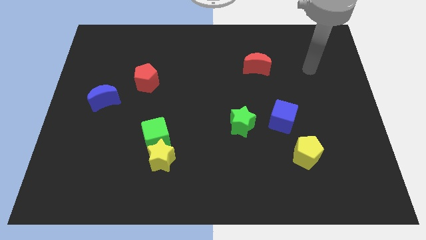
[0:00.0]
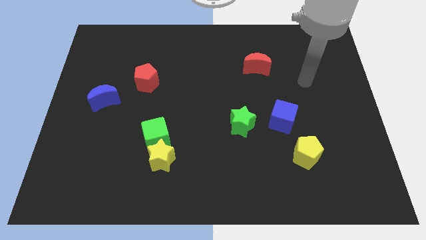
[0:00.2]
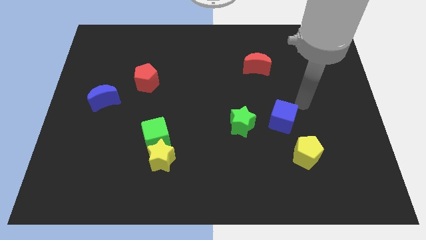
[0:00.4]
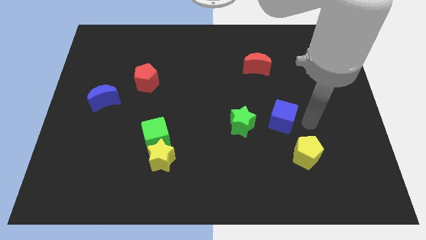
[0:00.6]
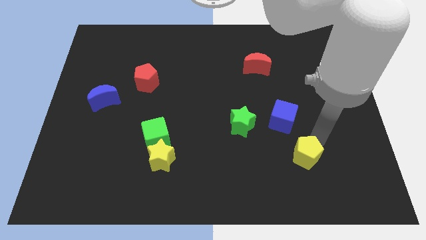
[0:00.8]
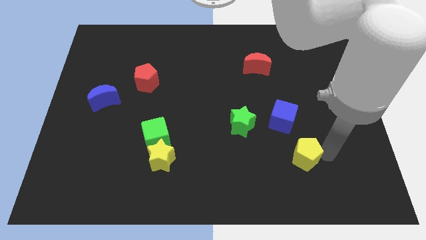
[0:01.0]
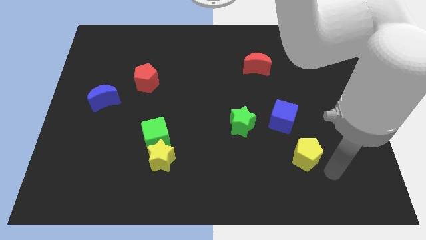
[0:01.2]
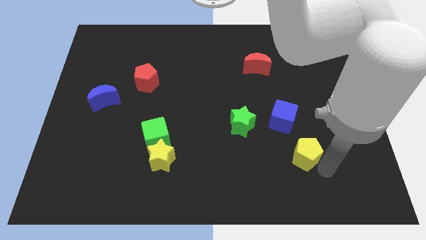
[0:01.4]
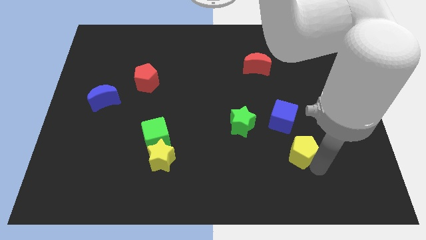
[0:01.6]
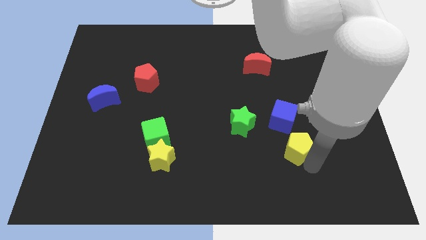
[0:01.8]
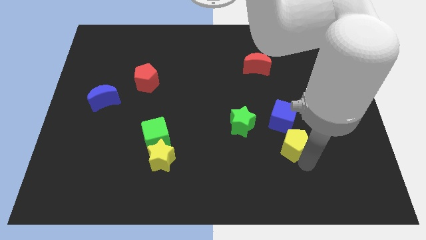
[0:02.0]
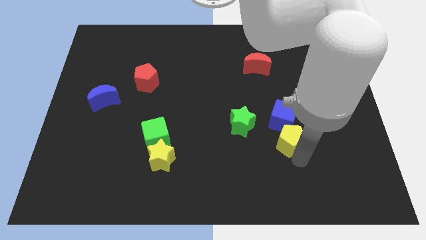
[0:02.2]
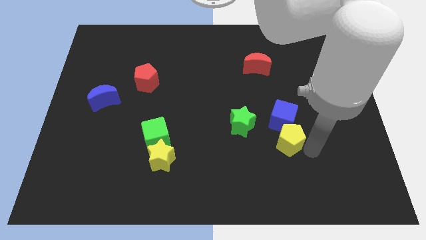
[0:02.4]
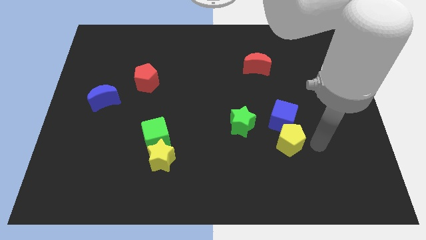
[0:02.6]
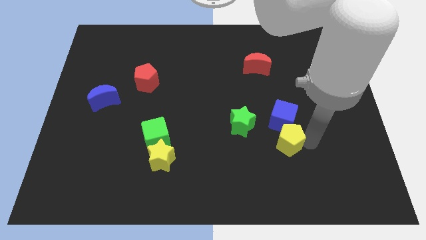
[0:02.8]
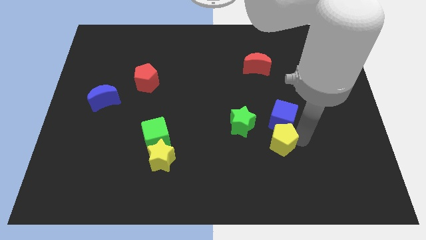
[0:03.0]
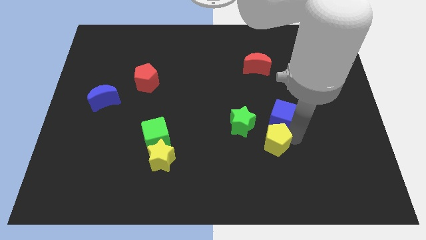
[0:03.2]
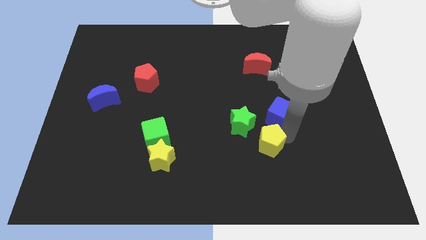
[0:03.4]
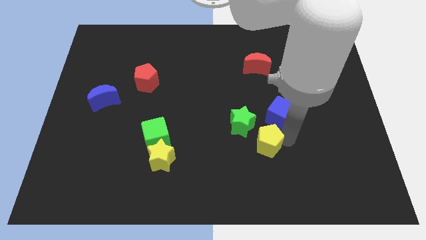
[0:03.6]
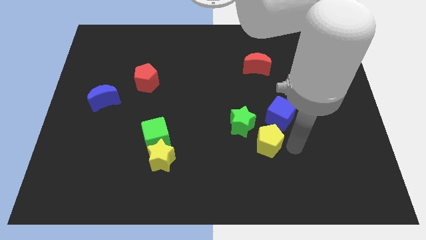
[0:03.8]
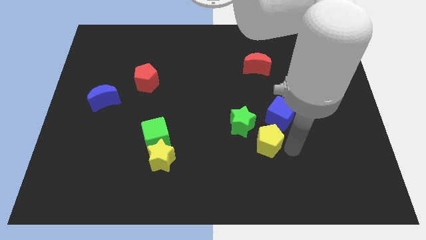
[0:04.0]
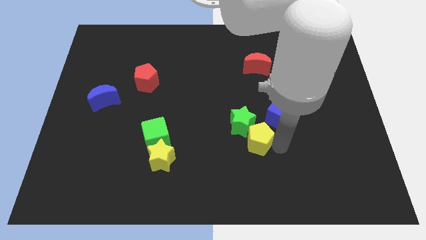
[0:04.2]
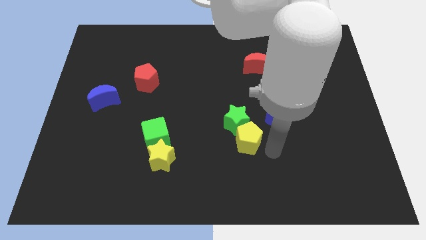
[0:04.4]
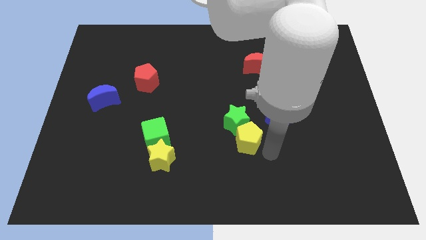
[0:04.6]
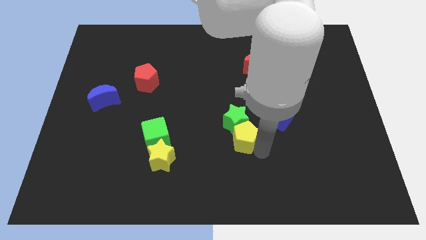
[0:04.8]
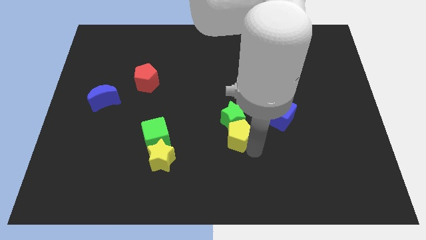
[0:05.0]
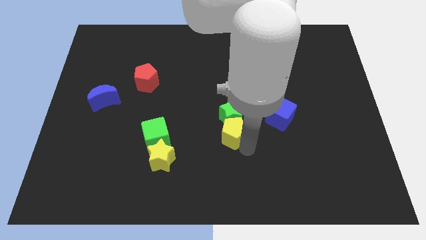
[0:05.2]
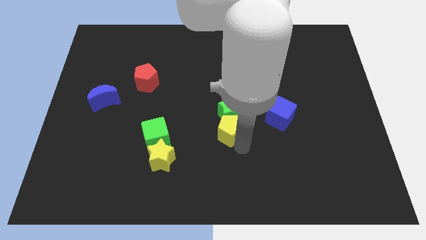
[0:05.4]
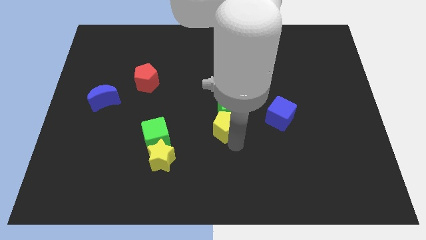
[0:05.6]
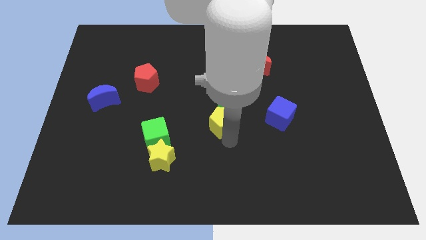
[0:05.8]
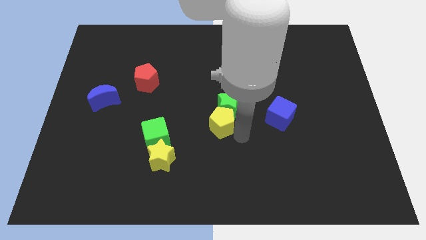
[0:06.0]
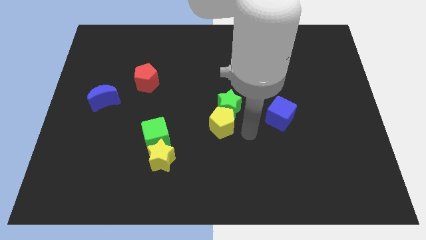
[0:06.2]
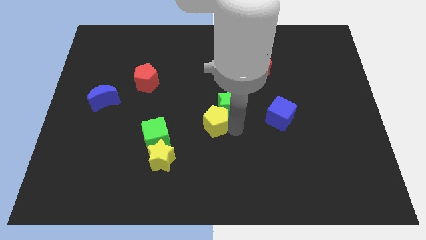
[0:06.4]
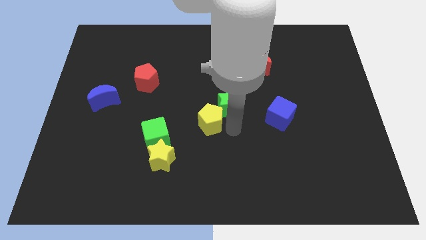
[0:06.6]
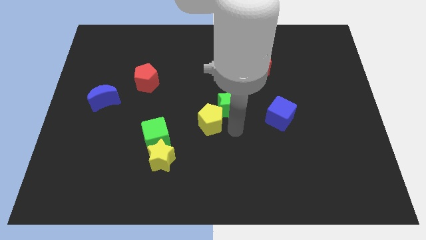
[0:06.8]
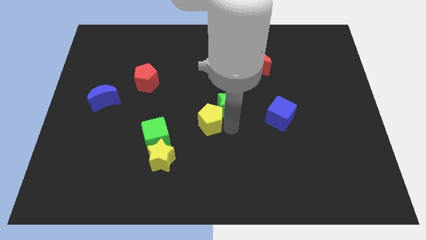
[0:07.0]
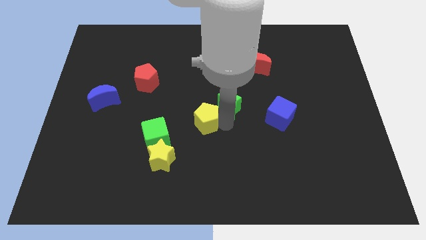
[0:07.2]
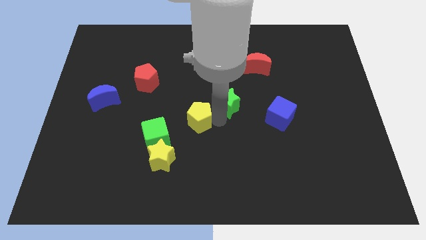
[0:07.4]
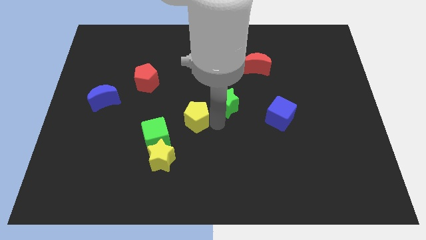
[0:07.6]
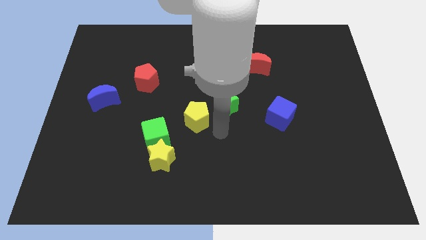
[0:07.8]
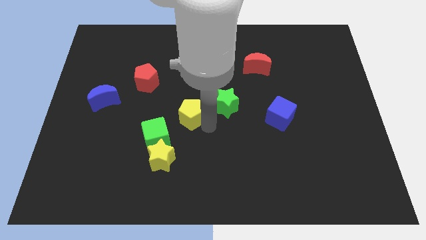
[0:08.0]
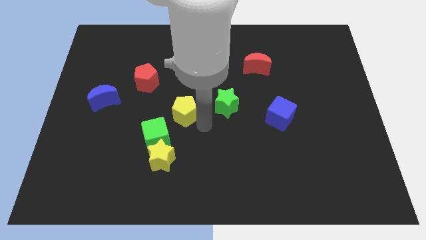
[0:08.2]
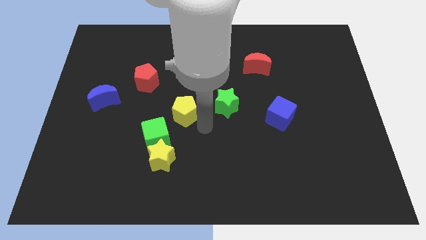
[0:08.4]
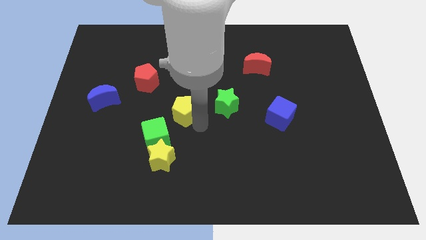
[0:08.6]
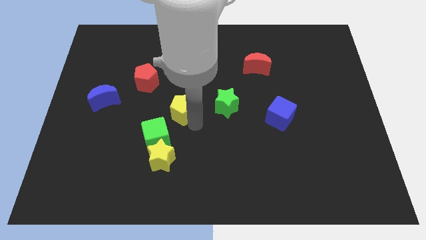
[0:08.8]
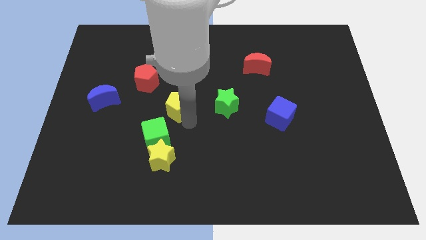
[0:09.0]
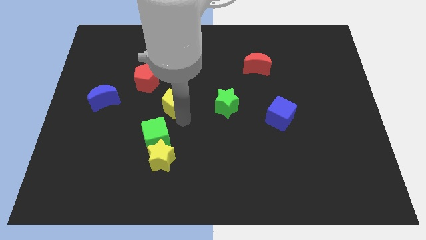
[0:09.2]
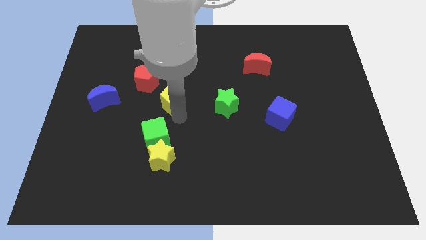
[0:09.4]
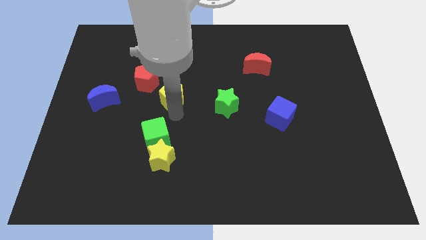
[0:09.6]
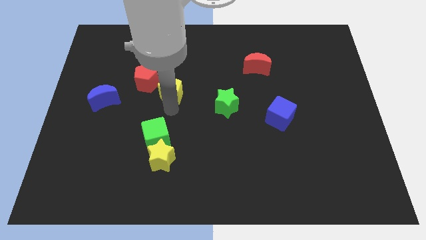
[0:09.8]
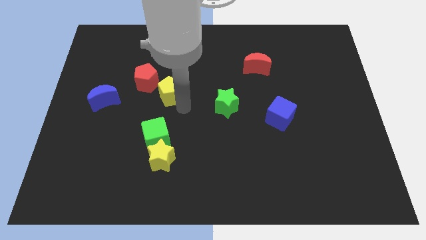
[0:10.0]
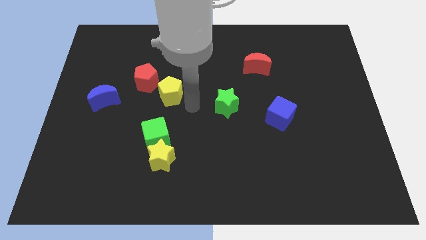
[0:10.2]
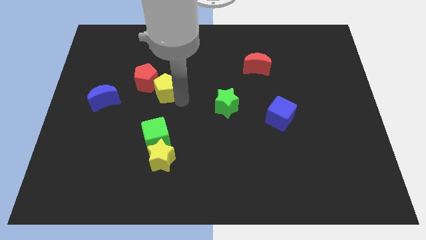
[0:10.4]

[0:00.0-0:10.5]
put the yellow pentagon towards the red pentagon

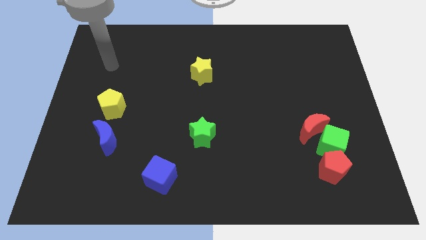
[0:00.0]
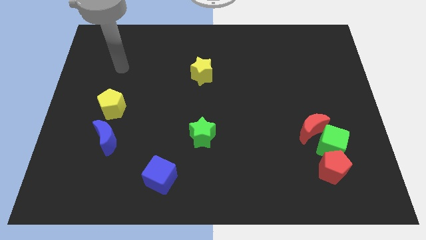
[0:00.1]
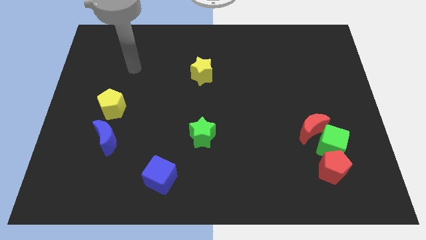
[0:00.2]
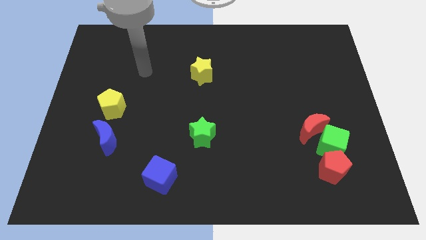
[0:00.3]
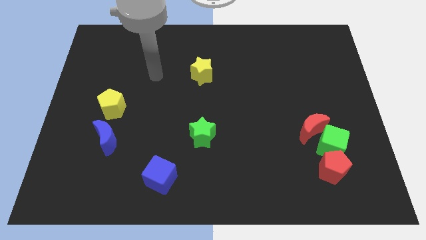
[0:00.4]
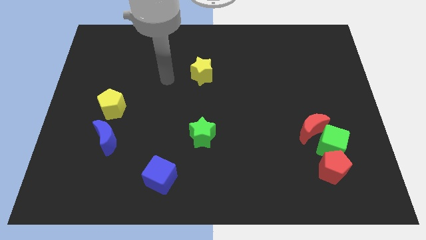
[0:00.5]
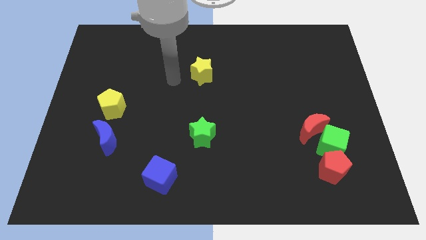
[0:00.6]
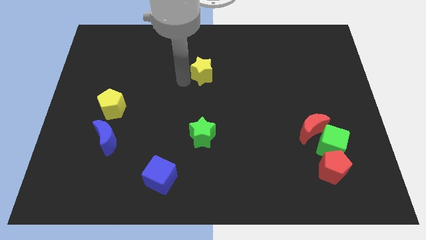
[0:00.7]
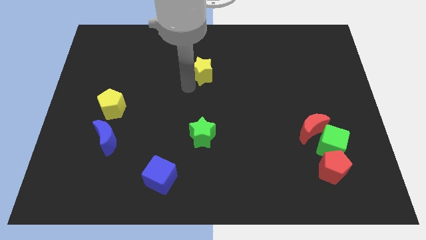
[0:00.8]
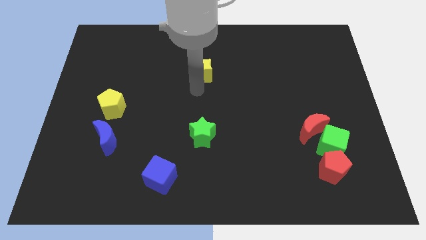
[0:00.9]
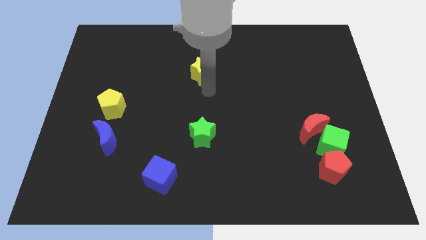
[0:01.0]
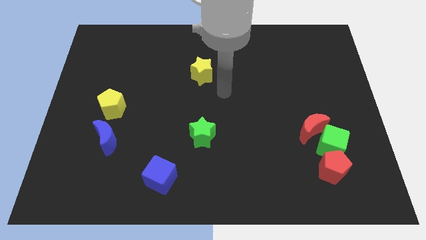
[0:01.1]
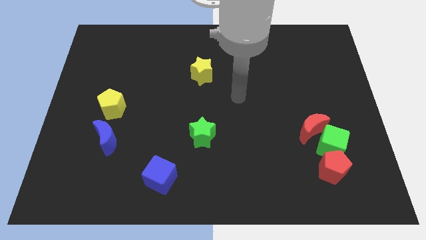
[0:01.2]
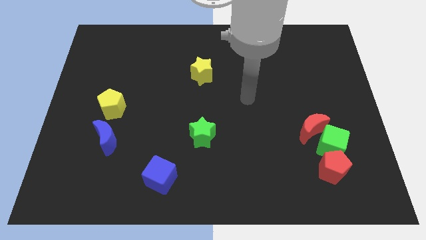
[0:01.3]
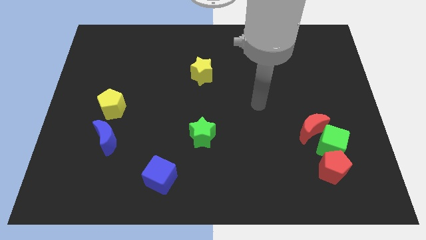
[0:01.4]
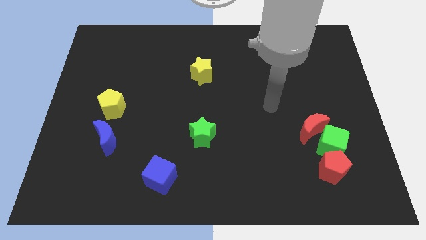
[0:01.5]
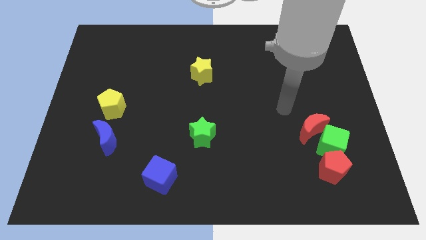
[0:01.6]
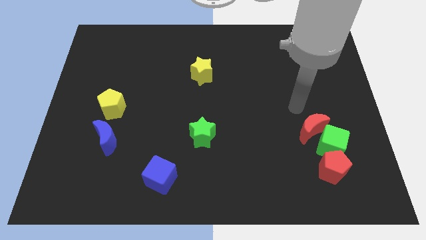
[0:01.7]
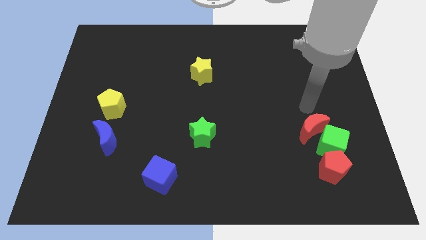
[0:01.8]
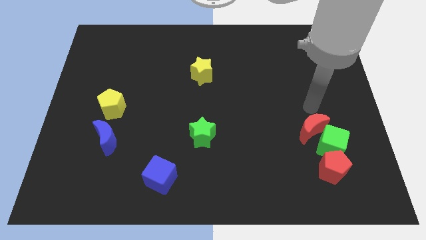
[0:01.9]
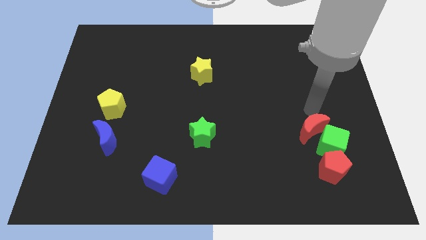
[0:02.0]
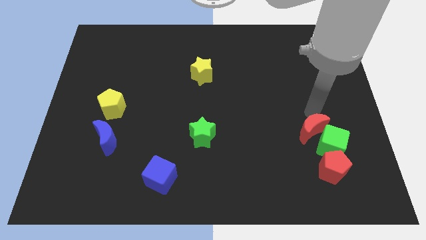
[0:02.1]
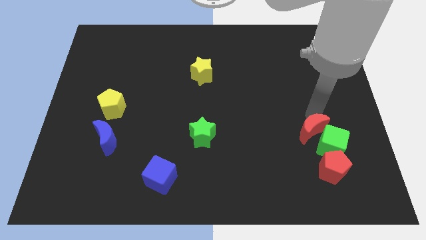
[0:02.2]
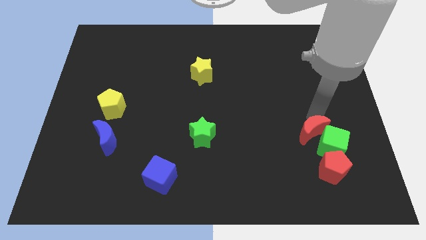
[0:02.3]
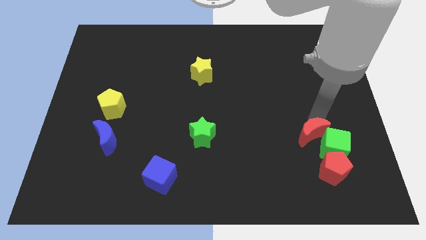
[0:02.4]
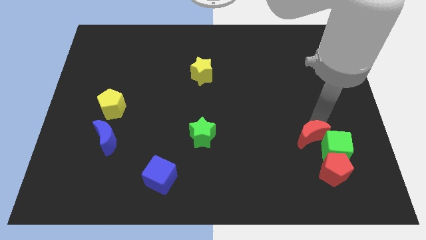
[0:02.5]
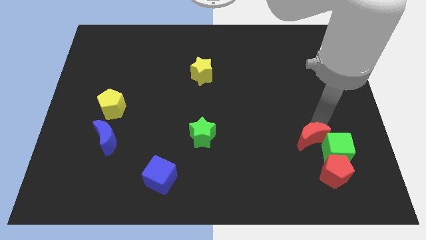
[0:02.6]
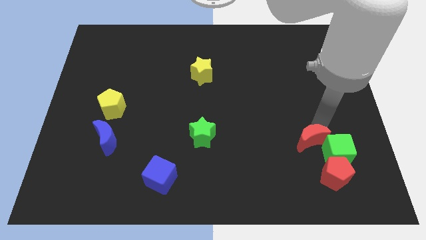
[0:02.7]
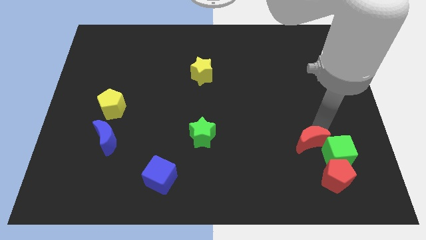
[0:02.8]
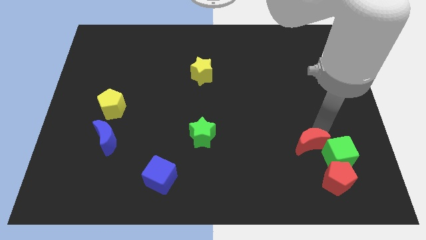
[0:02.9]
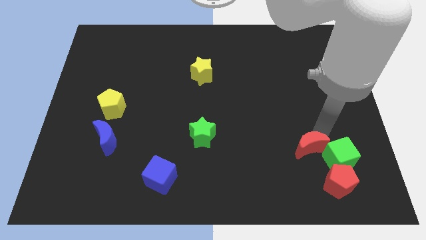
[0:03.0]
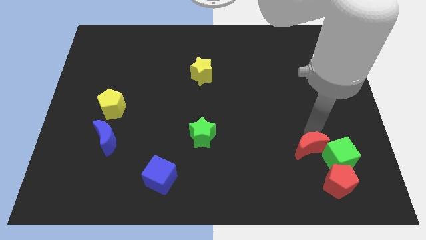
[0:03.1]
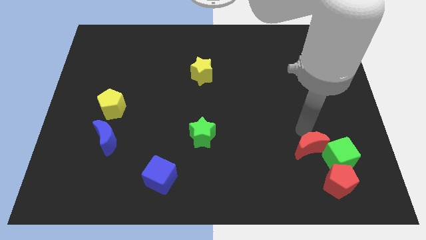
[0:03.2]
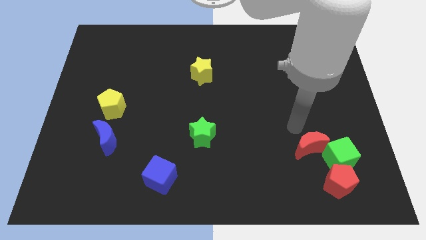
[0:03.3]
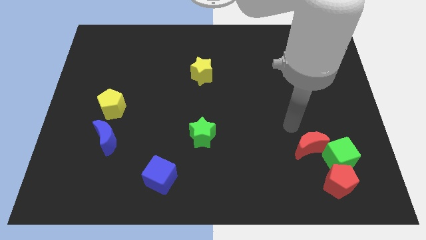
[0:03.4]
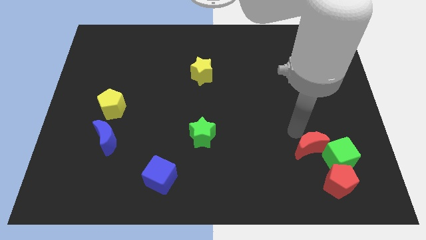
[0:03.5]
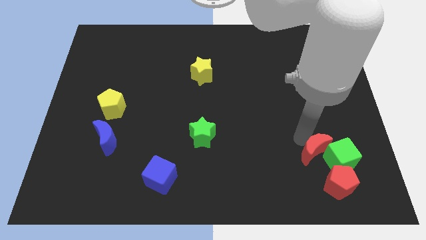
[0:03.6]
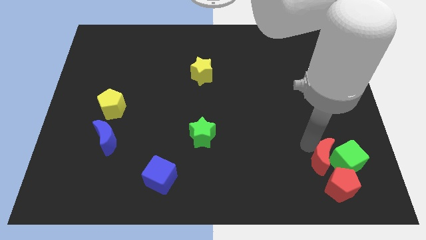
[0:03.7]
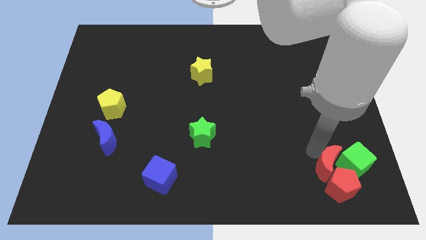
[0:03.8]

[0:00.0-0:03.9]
slide the red moon close to the red pentagon
